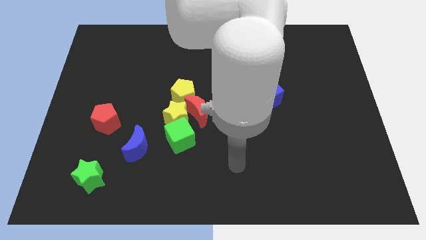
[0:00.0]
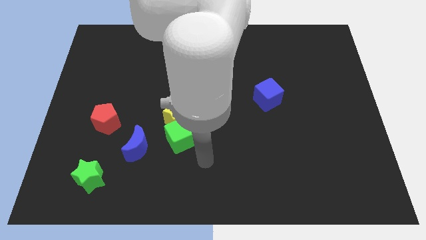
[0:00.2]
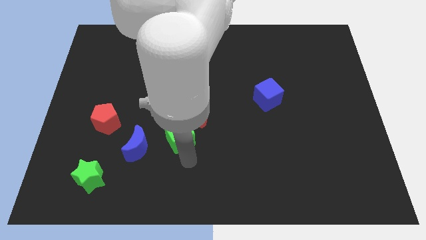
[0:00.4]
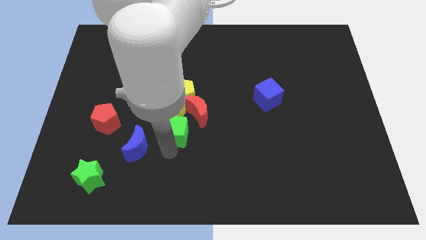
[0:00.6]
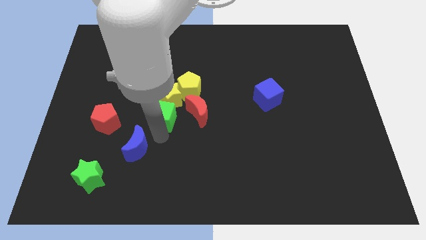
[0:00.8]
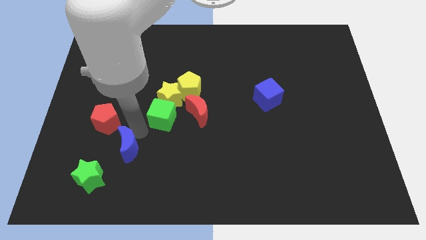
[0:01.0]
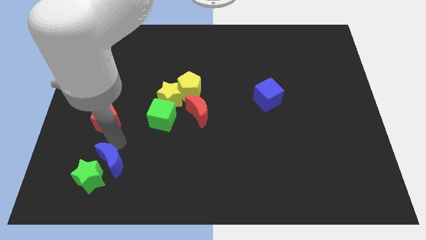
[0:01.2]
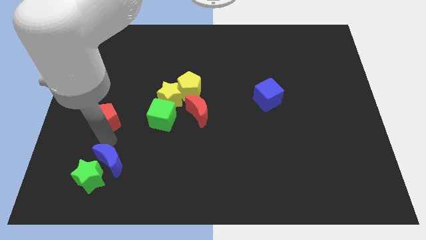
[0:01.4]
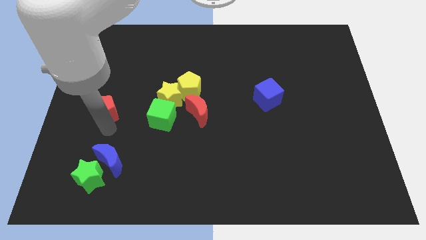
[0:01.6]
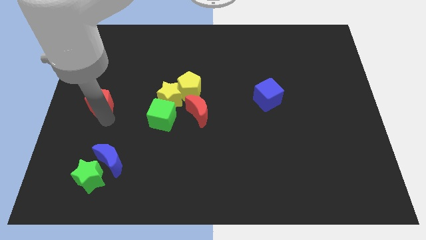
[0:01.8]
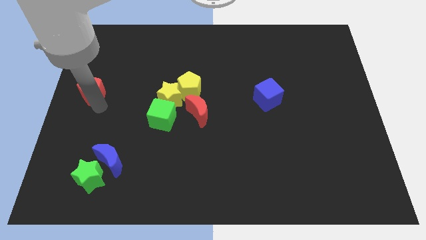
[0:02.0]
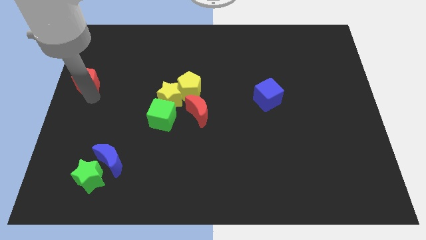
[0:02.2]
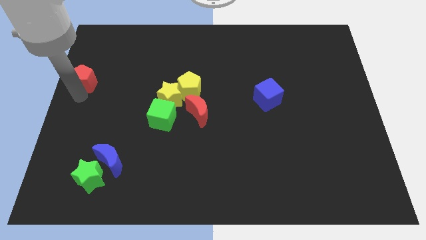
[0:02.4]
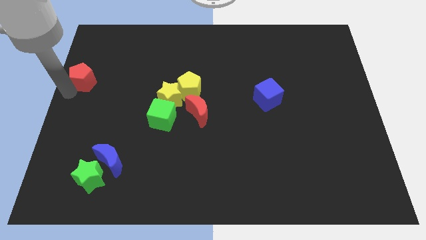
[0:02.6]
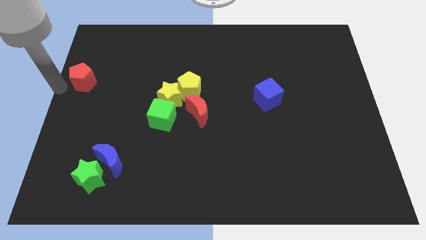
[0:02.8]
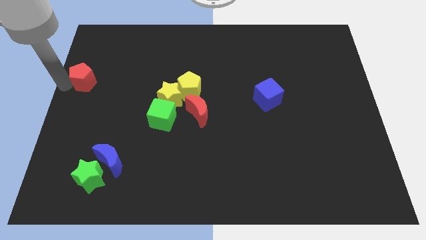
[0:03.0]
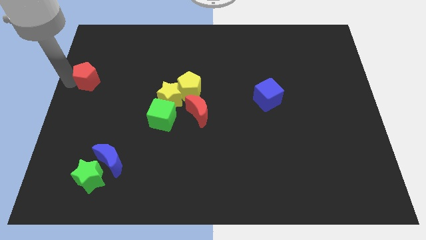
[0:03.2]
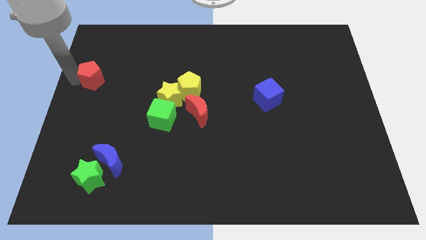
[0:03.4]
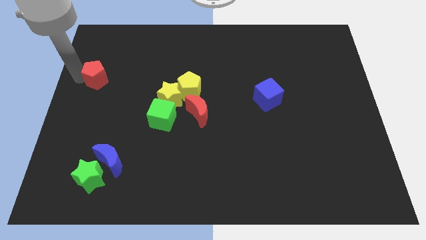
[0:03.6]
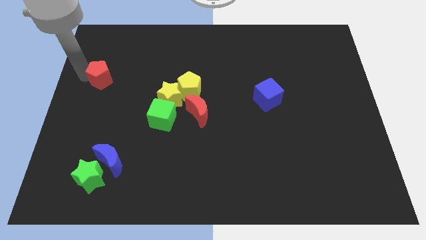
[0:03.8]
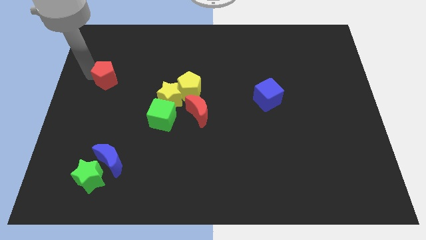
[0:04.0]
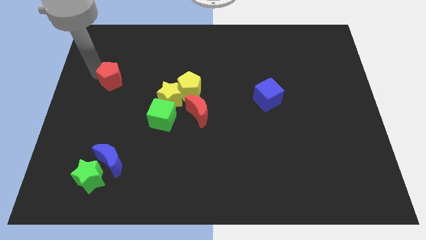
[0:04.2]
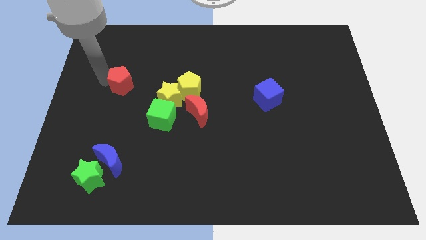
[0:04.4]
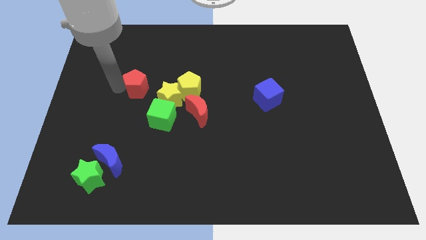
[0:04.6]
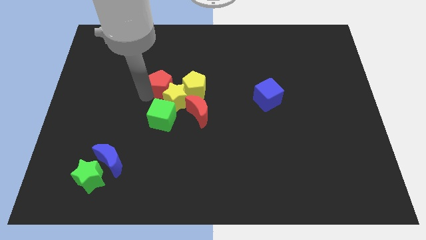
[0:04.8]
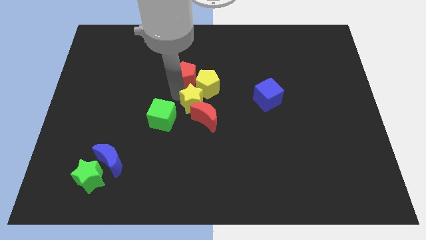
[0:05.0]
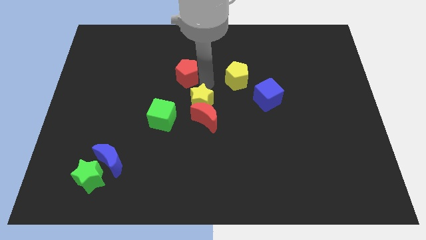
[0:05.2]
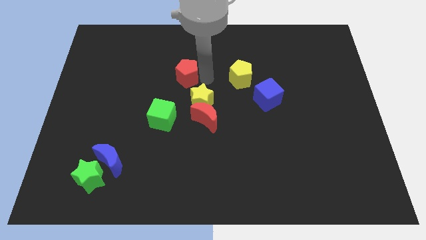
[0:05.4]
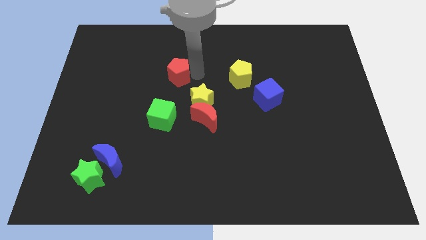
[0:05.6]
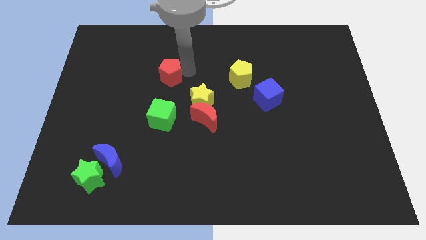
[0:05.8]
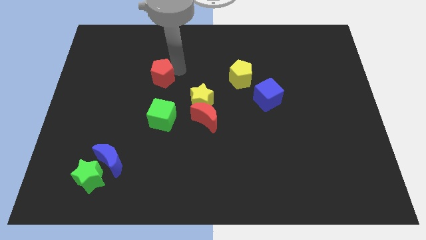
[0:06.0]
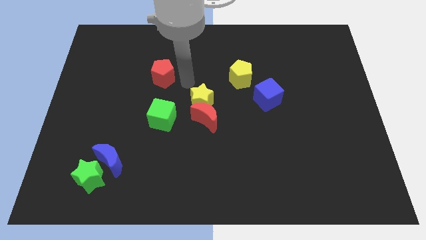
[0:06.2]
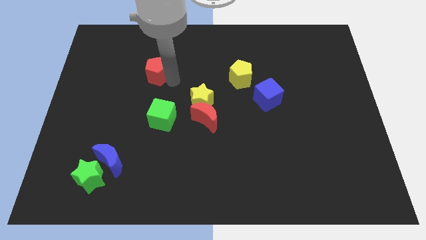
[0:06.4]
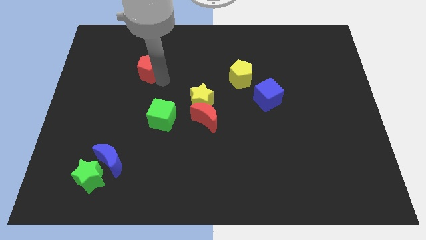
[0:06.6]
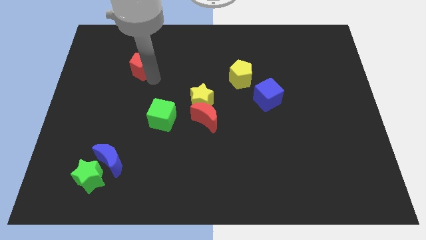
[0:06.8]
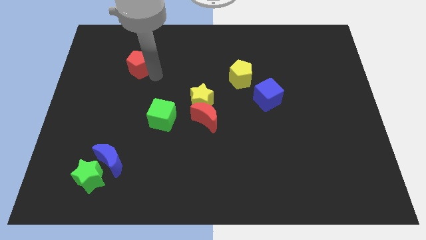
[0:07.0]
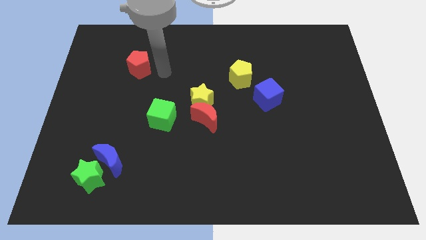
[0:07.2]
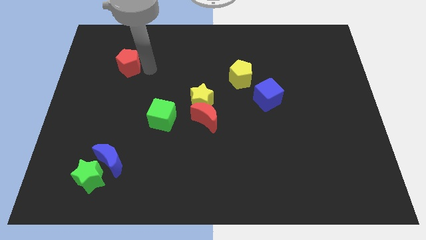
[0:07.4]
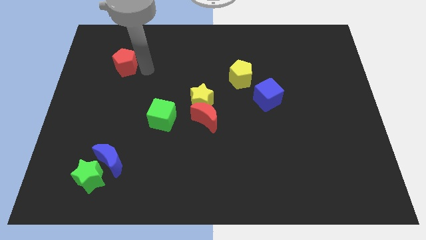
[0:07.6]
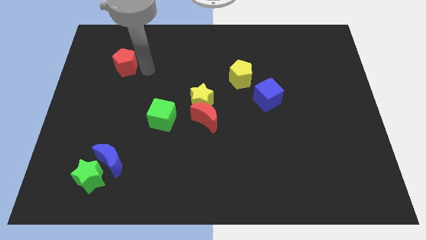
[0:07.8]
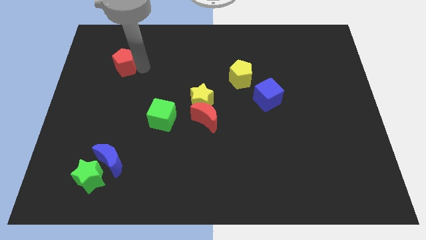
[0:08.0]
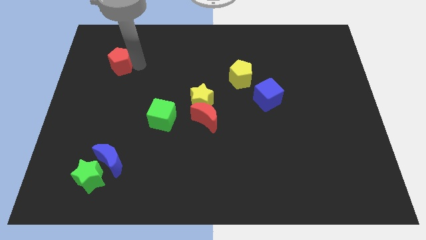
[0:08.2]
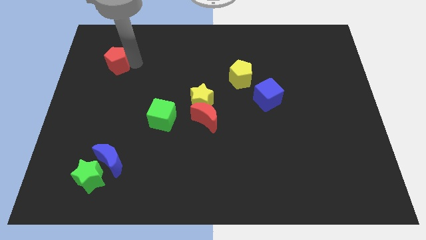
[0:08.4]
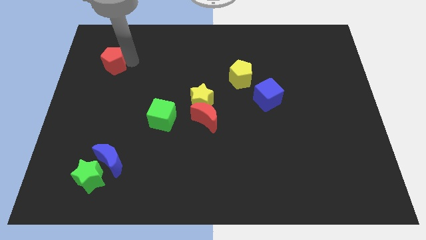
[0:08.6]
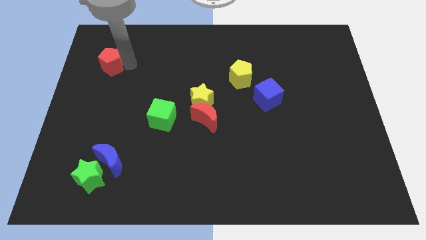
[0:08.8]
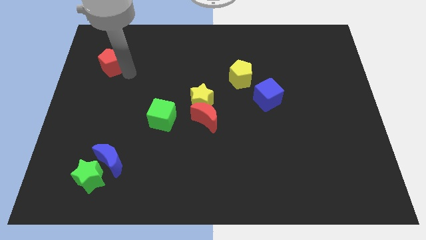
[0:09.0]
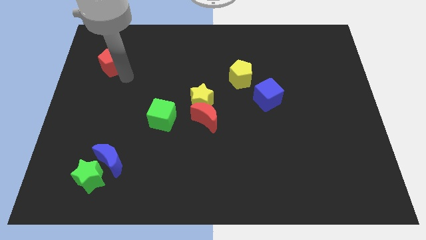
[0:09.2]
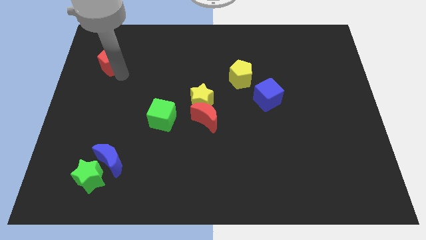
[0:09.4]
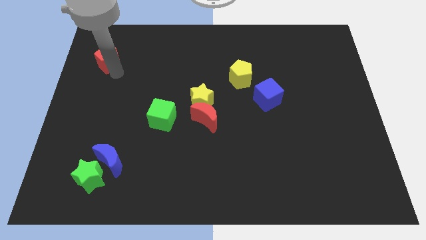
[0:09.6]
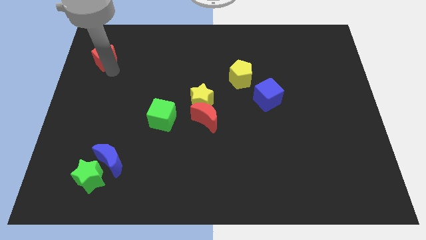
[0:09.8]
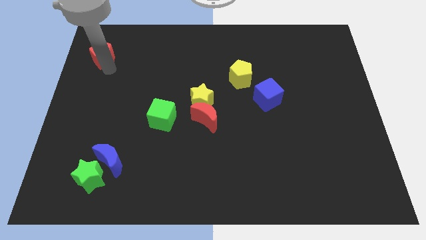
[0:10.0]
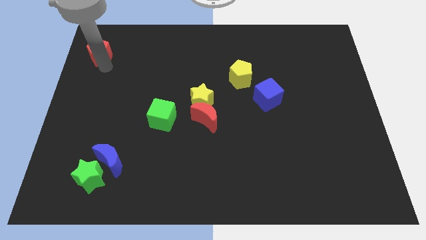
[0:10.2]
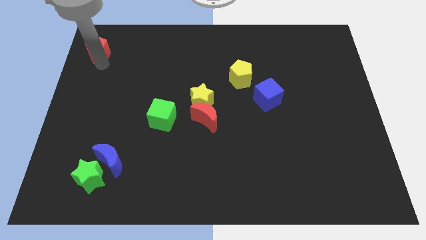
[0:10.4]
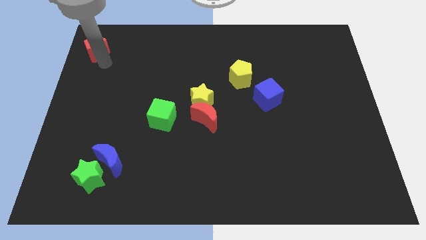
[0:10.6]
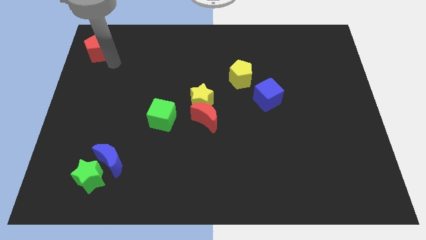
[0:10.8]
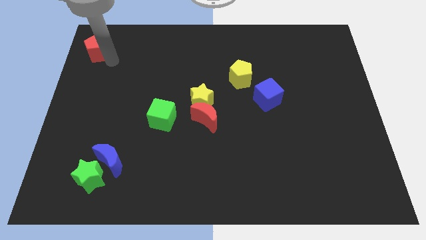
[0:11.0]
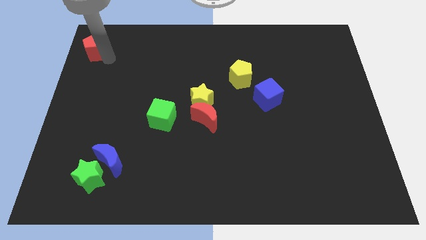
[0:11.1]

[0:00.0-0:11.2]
move the red pentagon to the top left of the board

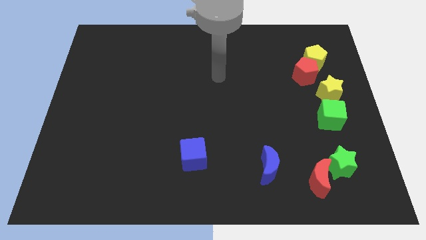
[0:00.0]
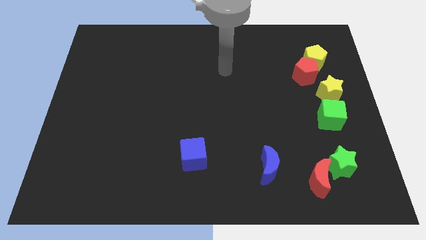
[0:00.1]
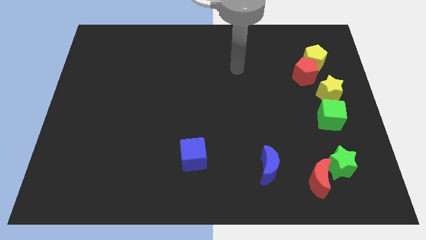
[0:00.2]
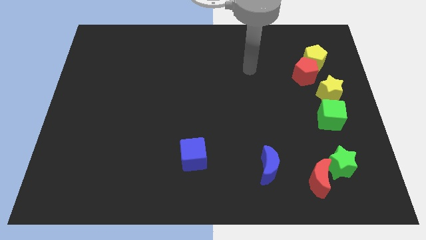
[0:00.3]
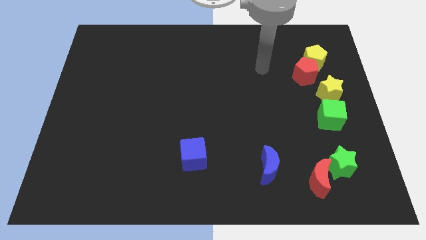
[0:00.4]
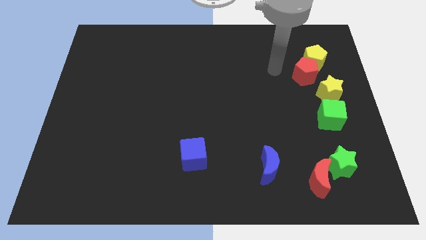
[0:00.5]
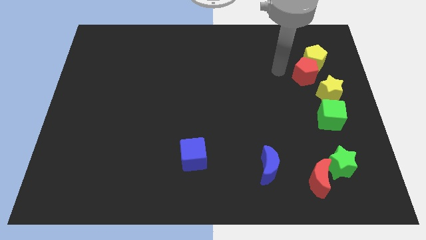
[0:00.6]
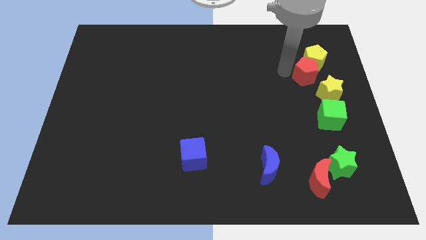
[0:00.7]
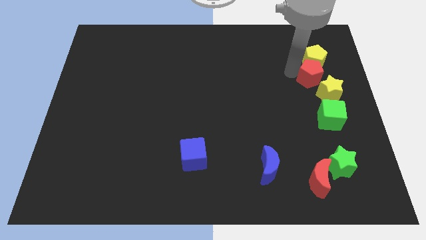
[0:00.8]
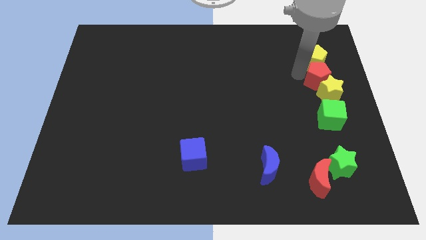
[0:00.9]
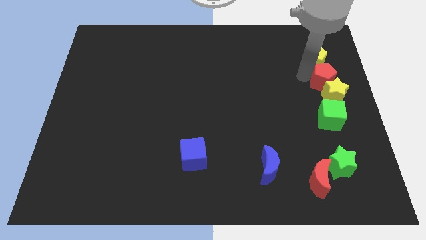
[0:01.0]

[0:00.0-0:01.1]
move the red pentagon to the right side of the board
